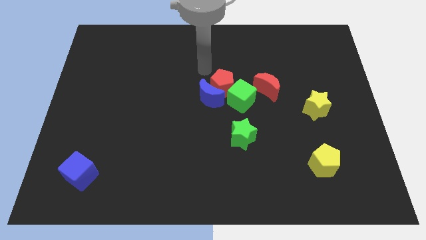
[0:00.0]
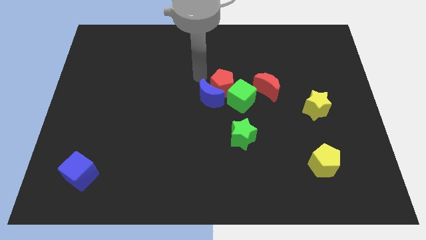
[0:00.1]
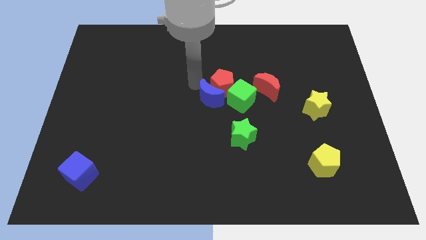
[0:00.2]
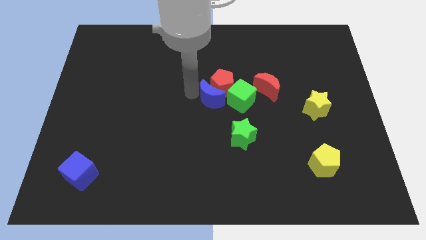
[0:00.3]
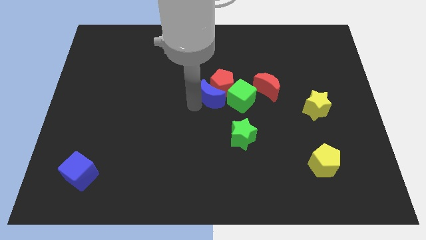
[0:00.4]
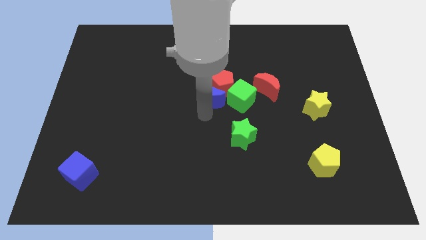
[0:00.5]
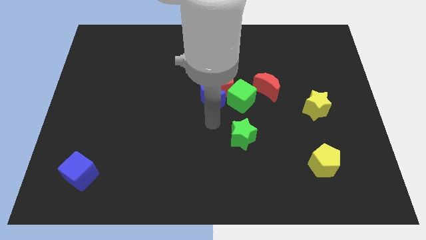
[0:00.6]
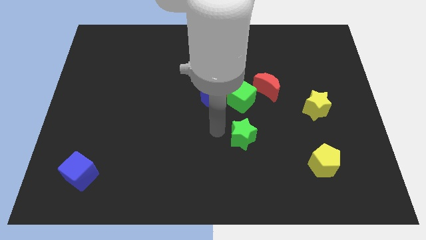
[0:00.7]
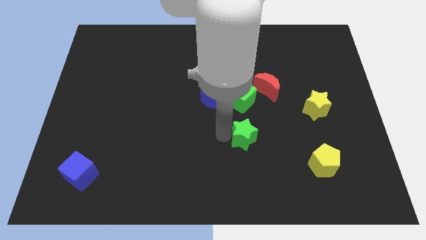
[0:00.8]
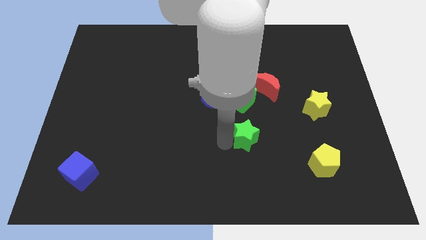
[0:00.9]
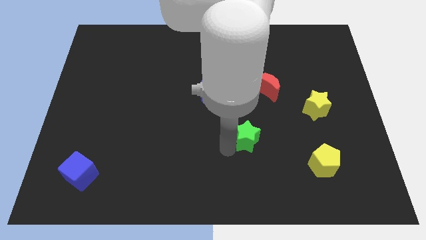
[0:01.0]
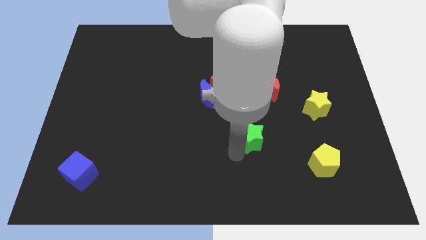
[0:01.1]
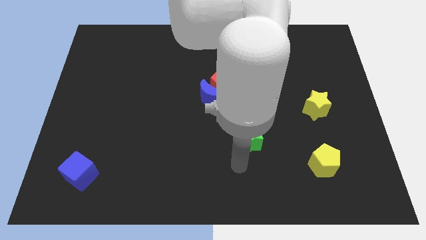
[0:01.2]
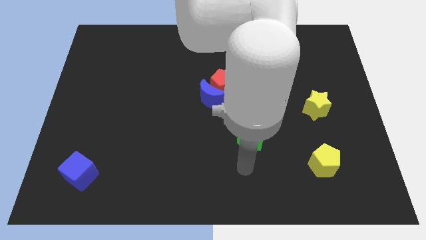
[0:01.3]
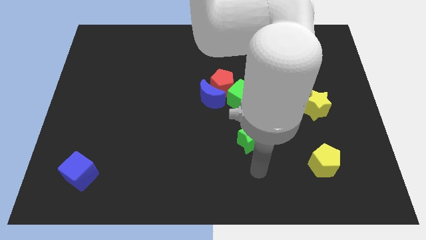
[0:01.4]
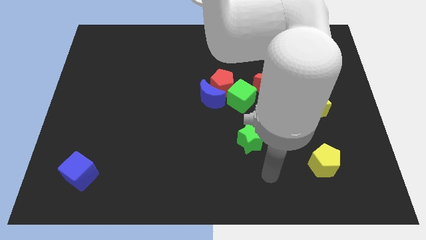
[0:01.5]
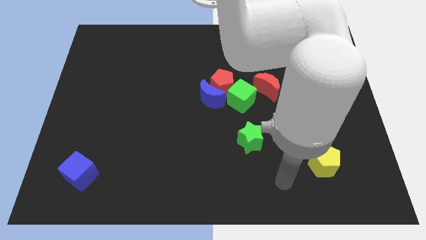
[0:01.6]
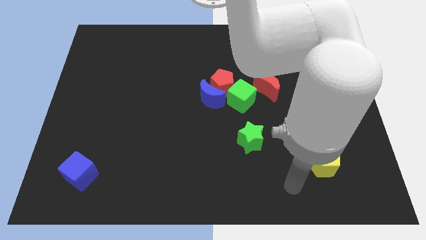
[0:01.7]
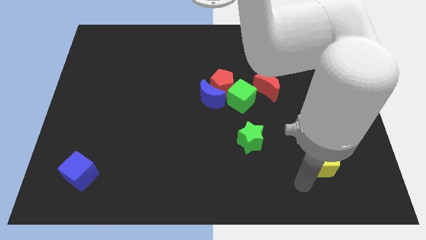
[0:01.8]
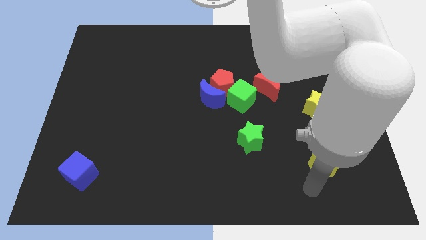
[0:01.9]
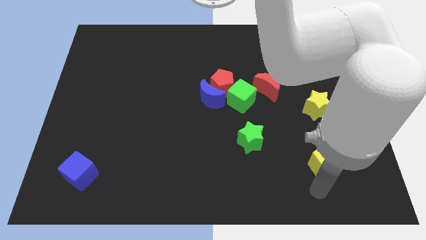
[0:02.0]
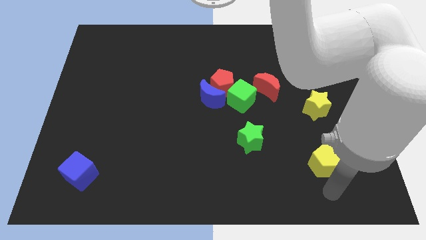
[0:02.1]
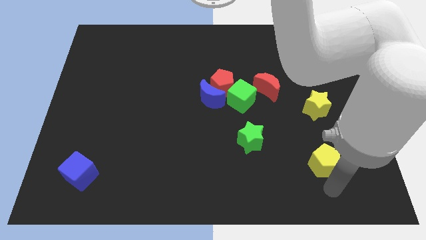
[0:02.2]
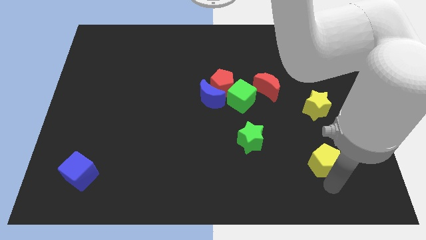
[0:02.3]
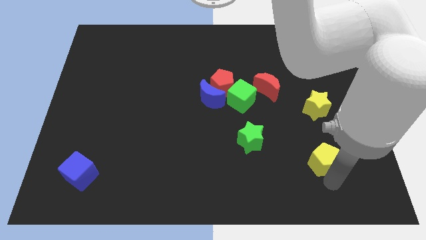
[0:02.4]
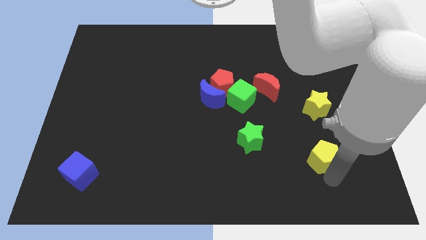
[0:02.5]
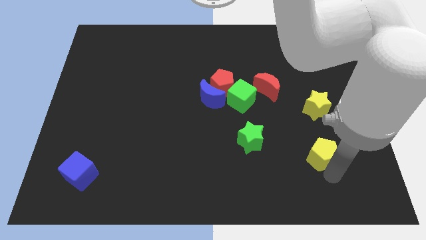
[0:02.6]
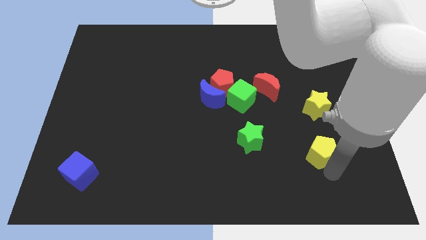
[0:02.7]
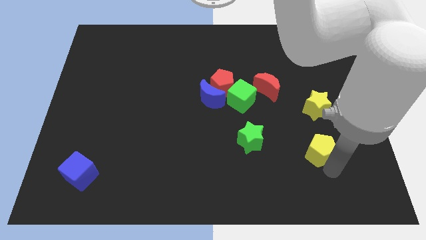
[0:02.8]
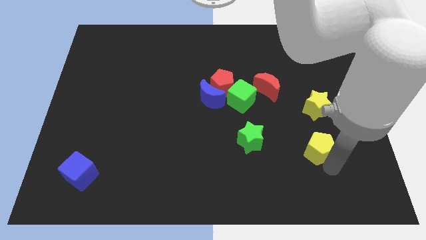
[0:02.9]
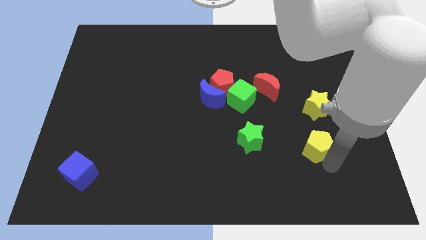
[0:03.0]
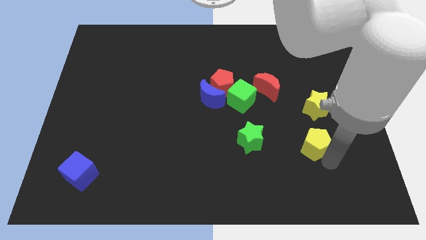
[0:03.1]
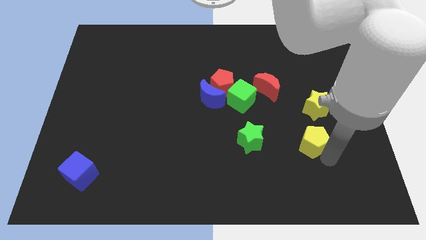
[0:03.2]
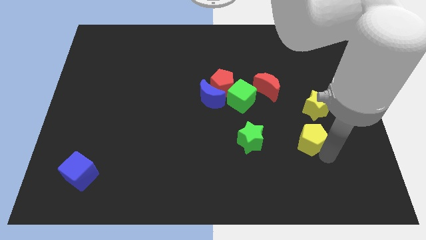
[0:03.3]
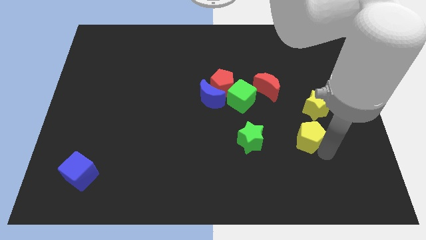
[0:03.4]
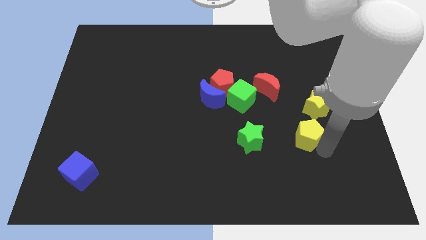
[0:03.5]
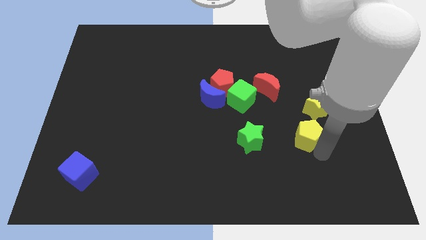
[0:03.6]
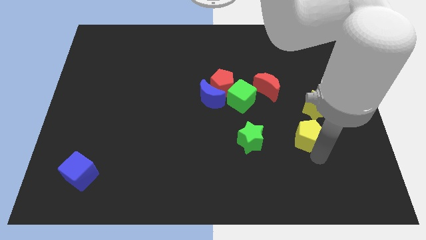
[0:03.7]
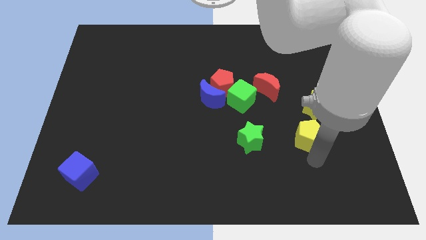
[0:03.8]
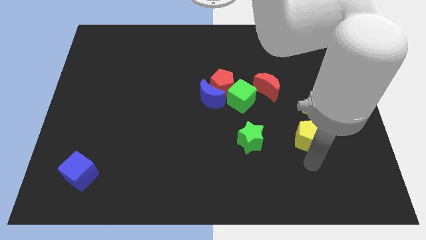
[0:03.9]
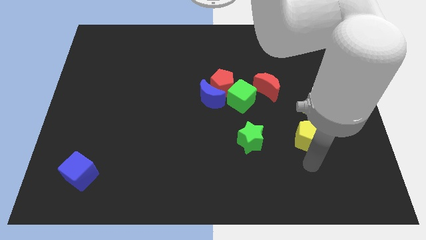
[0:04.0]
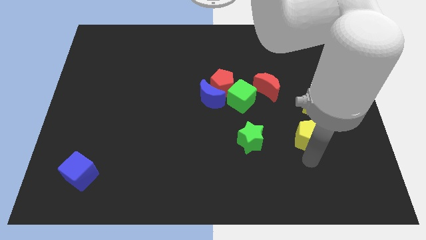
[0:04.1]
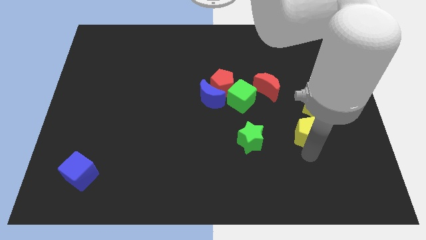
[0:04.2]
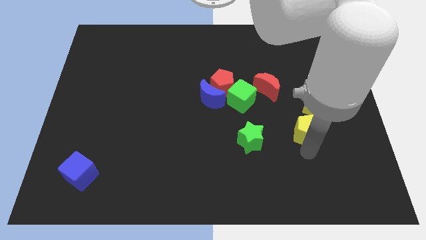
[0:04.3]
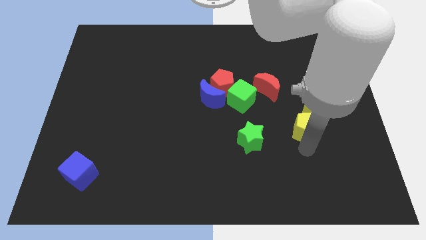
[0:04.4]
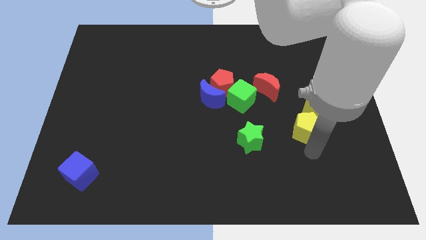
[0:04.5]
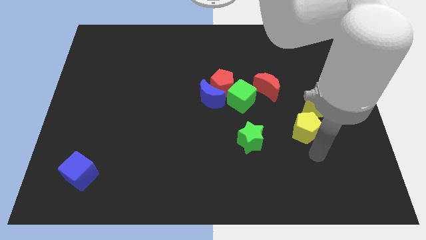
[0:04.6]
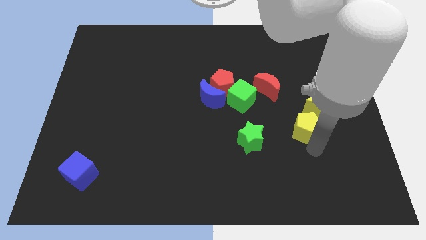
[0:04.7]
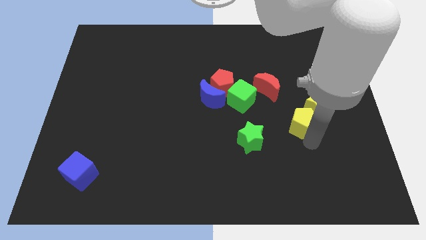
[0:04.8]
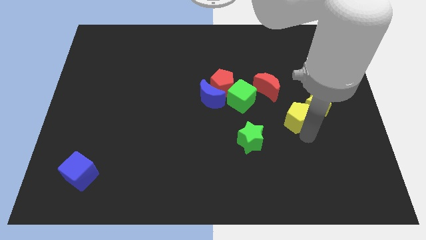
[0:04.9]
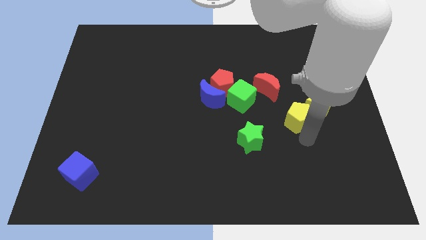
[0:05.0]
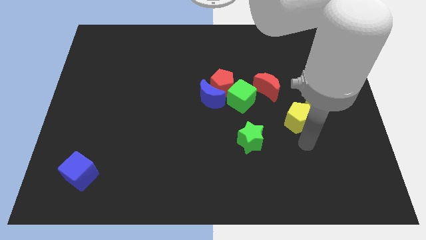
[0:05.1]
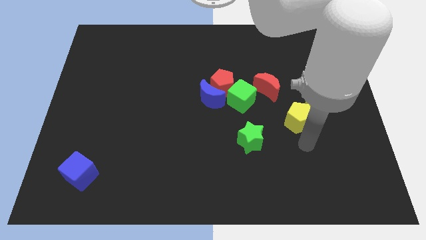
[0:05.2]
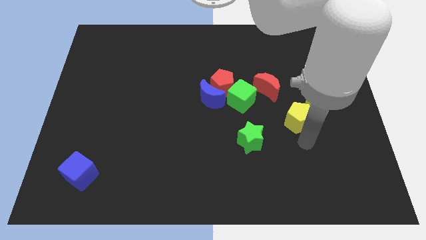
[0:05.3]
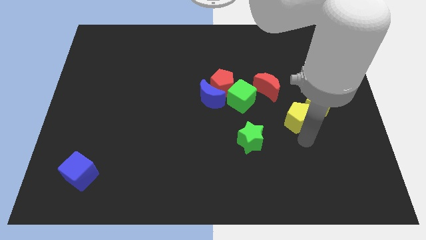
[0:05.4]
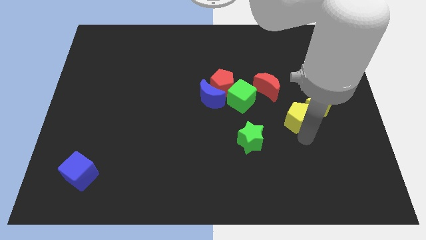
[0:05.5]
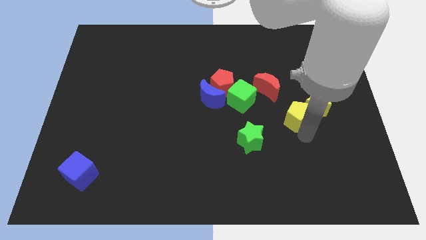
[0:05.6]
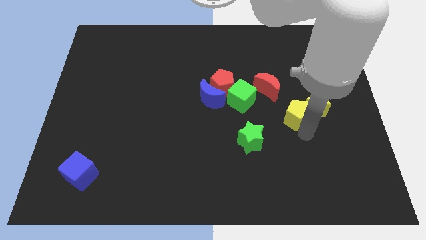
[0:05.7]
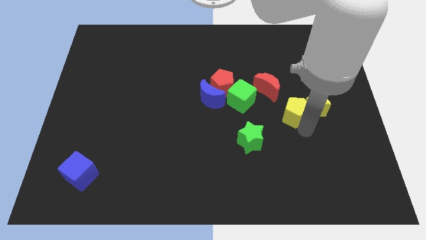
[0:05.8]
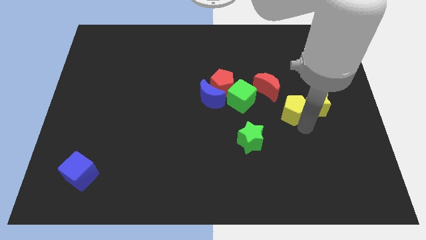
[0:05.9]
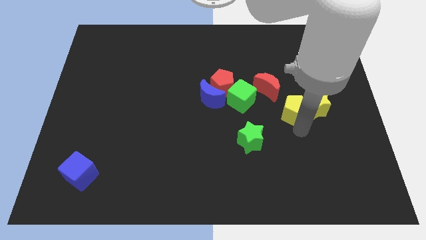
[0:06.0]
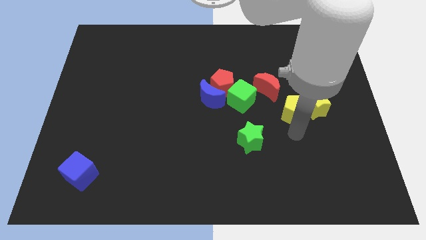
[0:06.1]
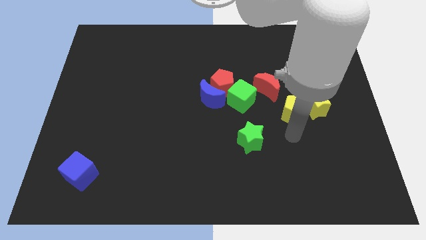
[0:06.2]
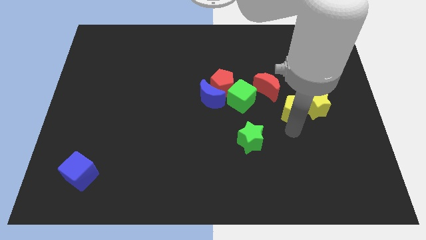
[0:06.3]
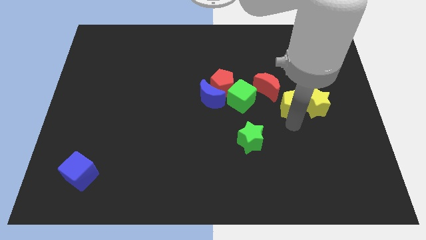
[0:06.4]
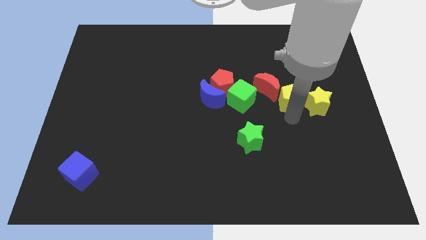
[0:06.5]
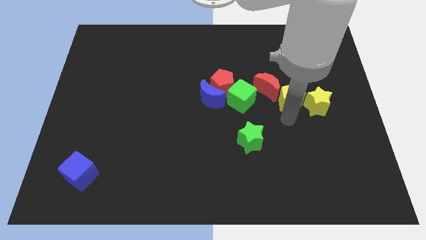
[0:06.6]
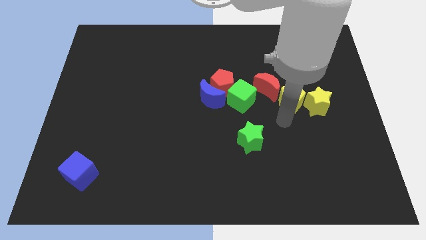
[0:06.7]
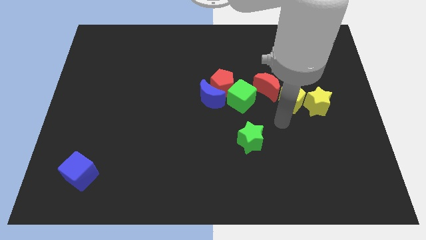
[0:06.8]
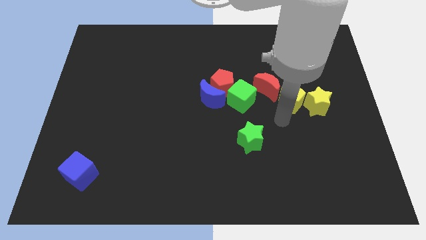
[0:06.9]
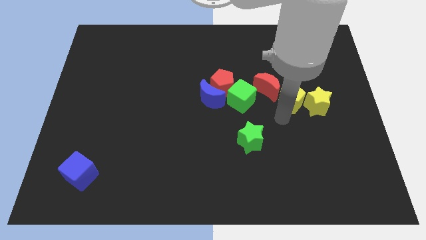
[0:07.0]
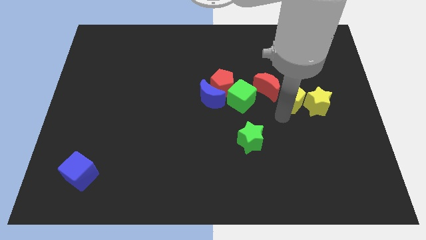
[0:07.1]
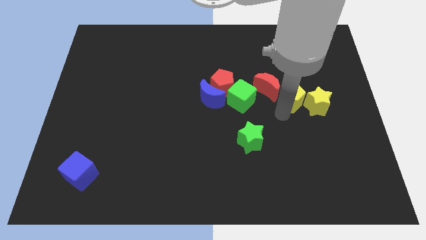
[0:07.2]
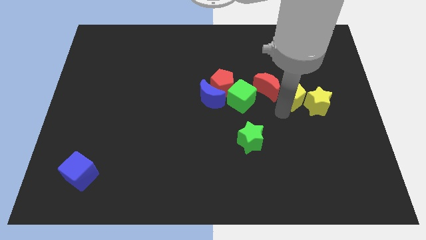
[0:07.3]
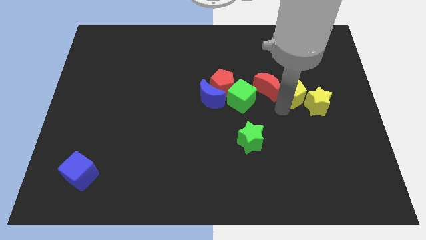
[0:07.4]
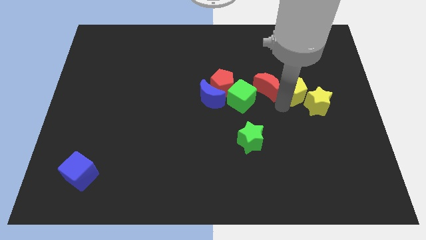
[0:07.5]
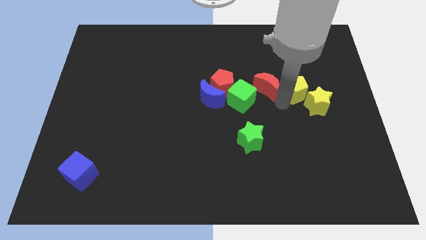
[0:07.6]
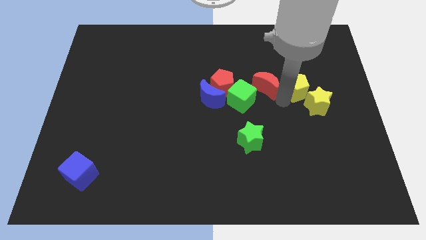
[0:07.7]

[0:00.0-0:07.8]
push the yellow pentagon up
